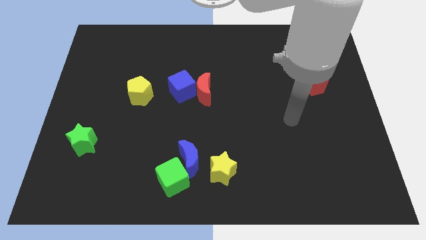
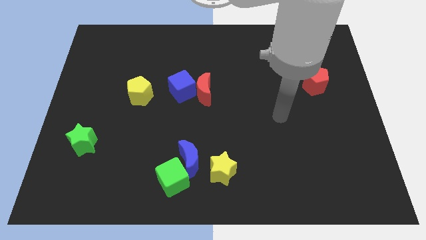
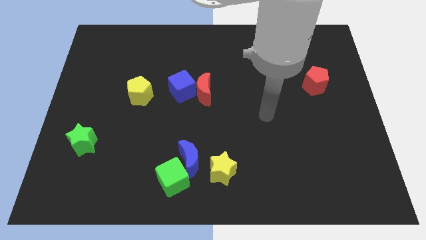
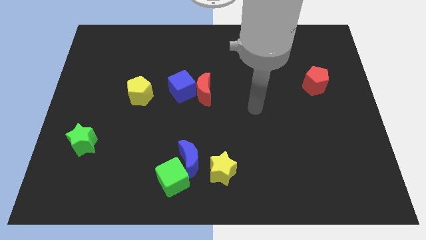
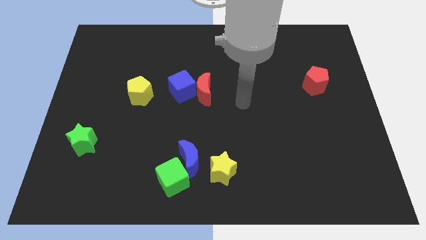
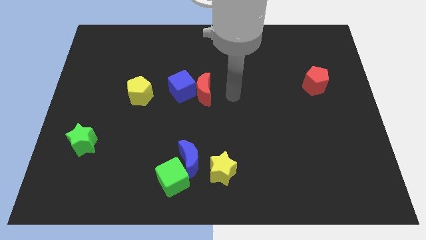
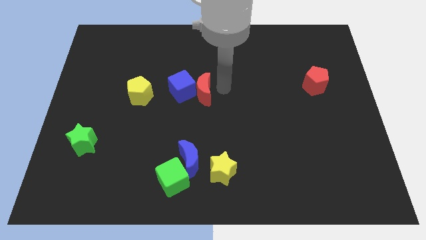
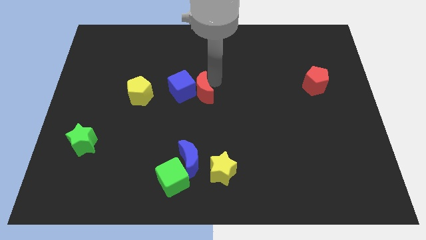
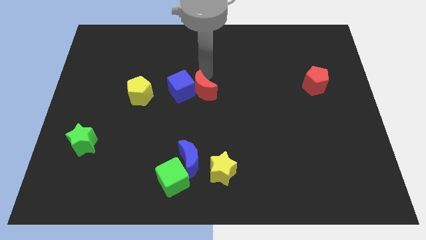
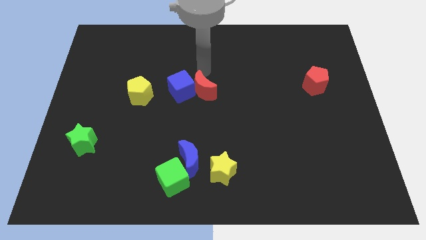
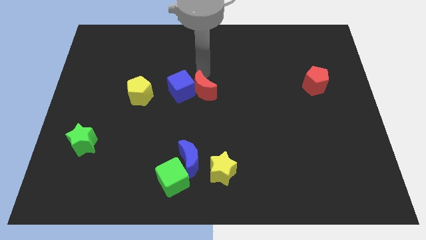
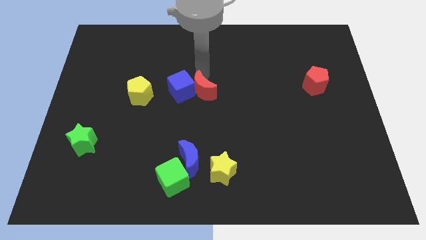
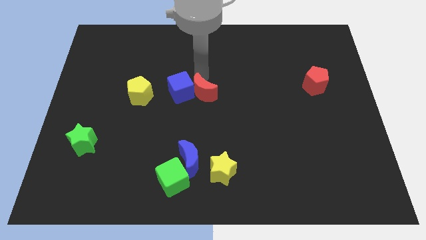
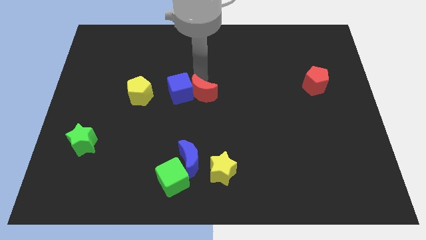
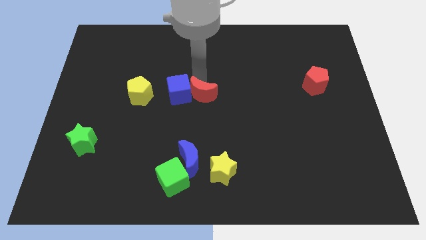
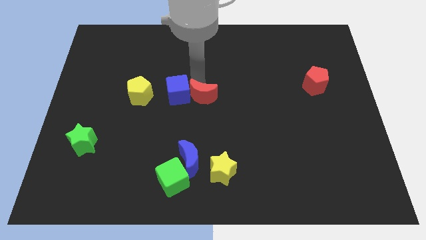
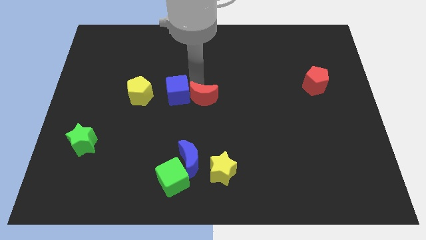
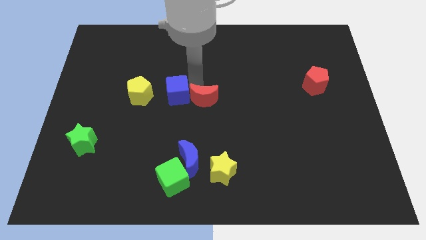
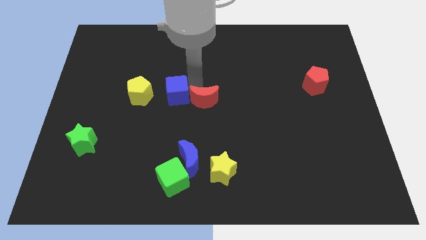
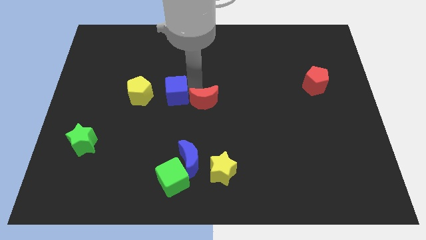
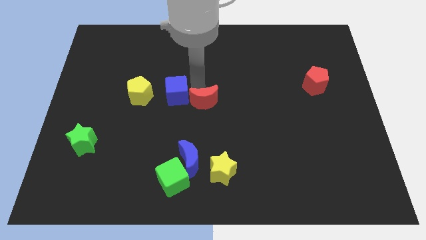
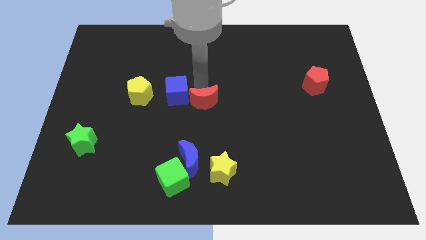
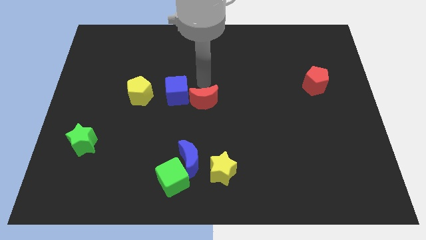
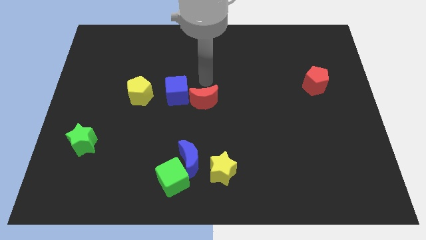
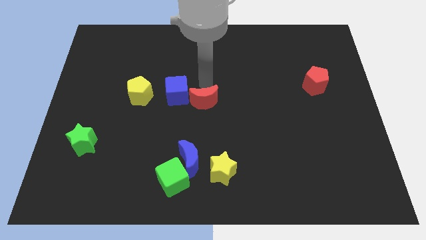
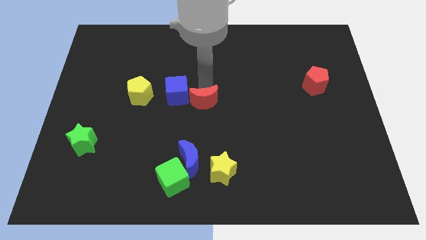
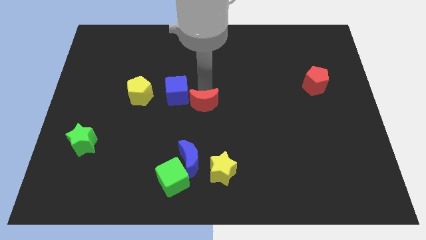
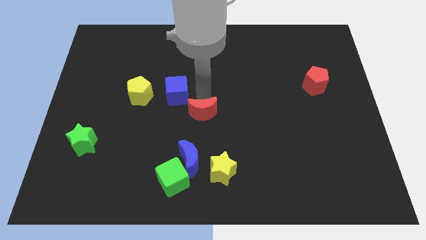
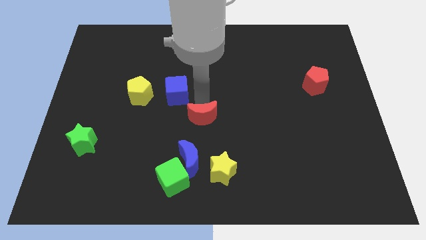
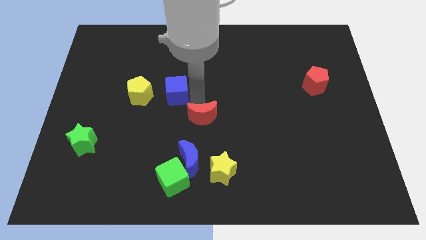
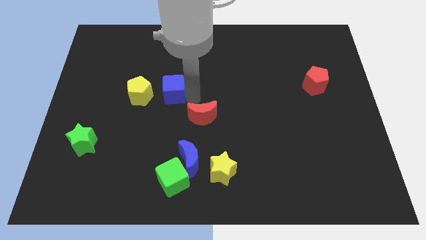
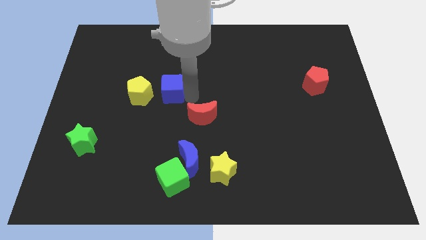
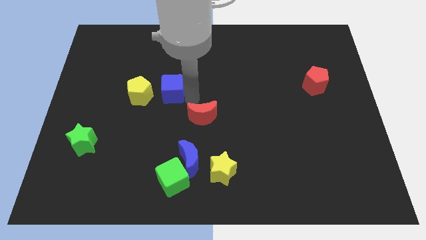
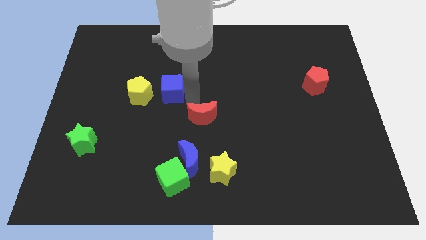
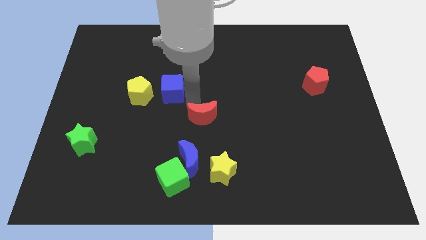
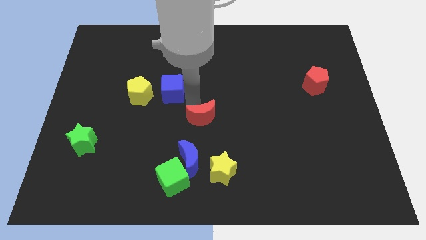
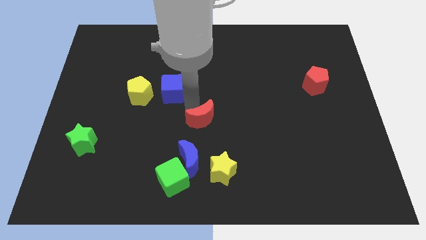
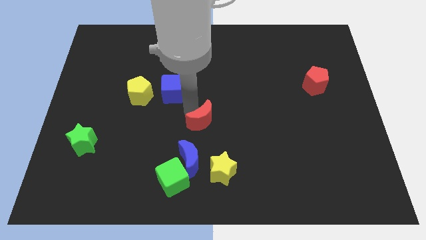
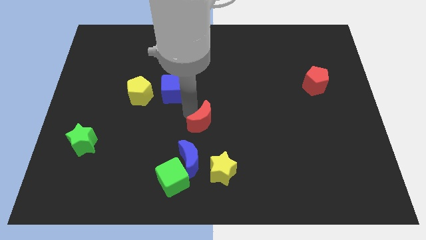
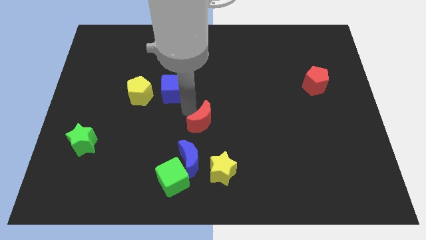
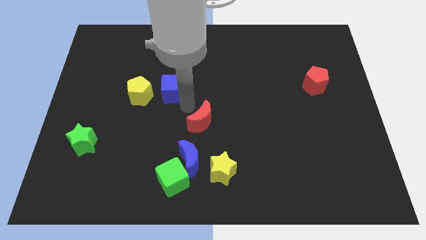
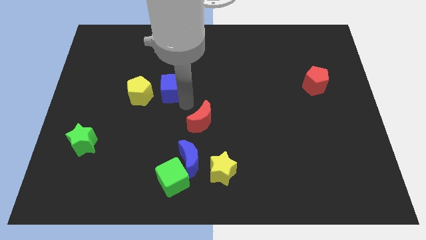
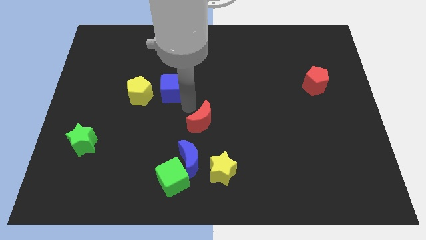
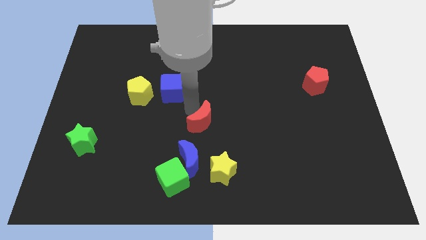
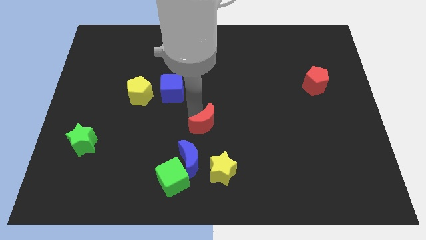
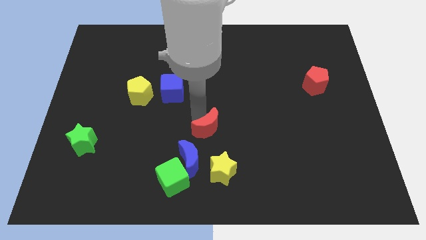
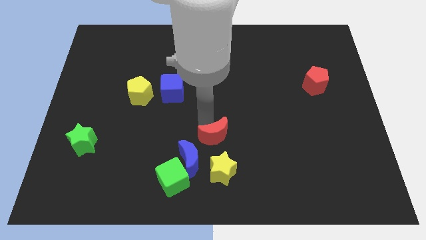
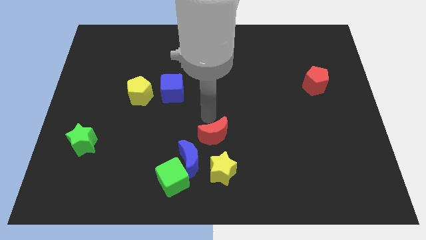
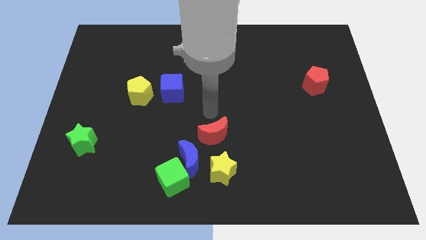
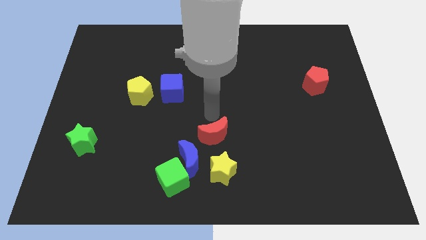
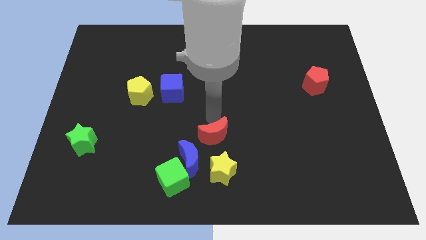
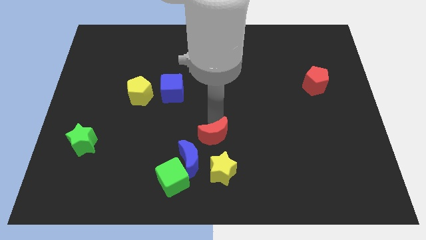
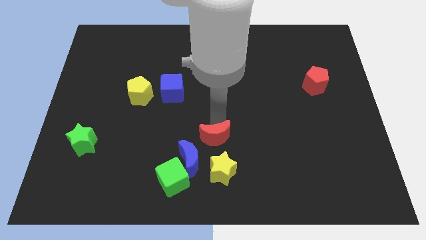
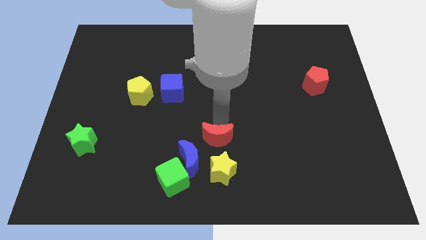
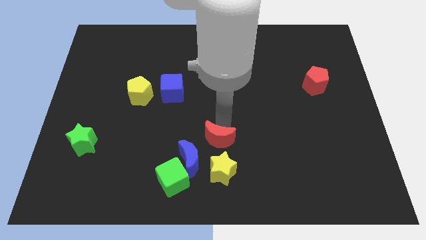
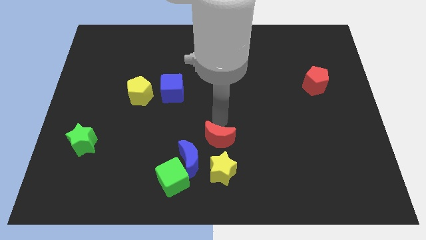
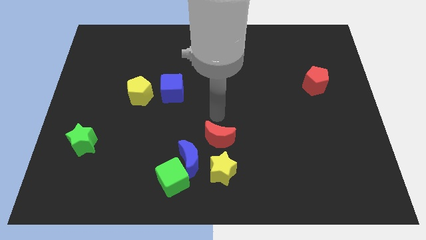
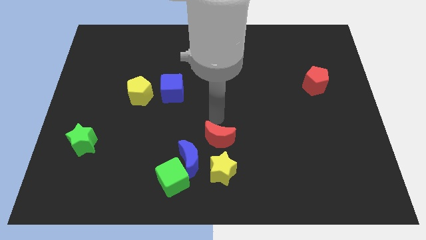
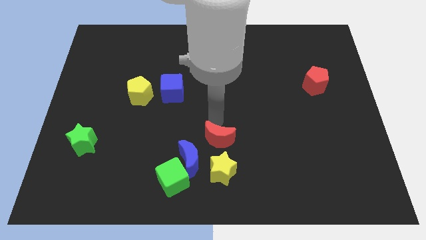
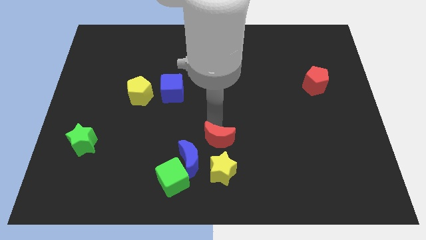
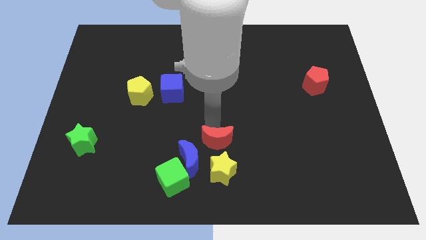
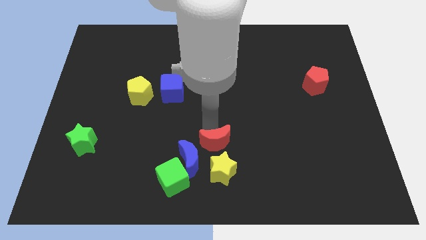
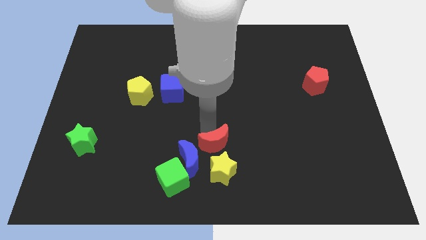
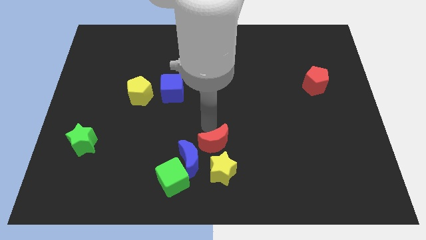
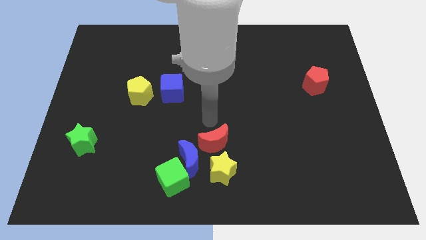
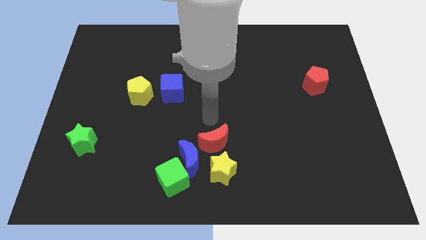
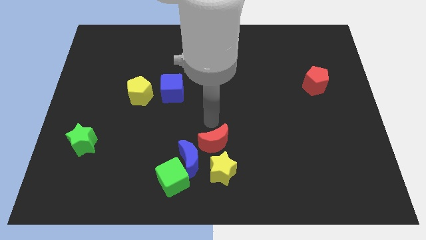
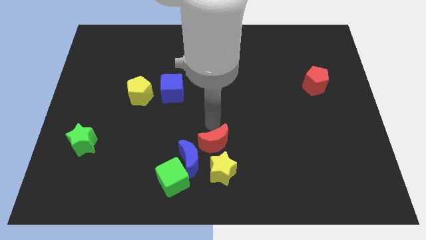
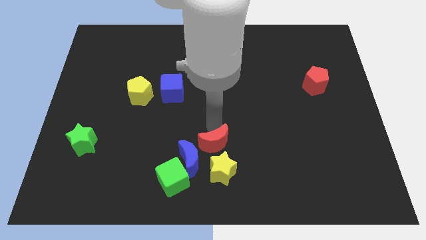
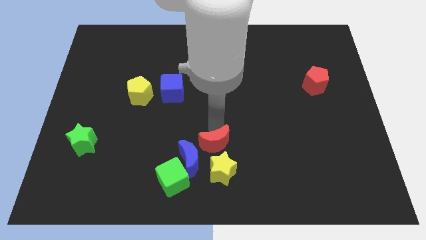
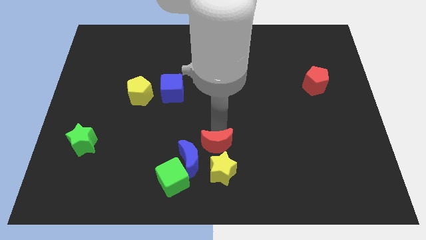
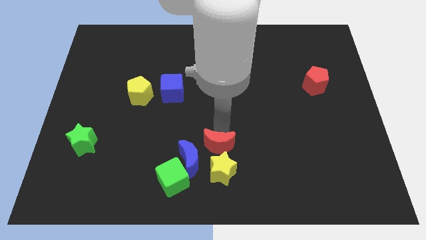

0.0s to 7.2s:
push the red moon next to the yellow star
